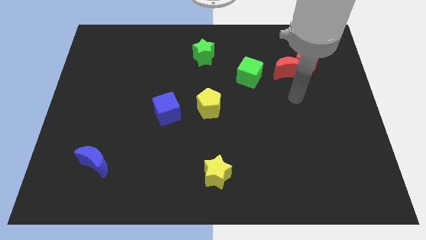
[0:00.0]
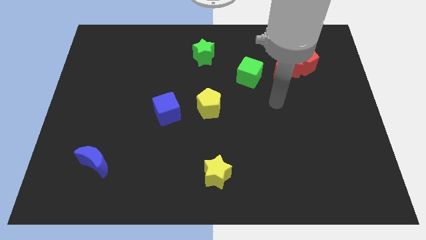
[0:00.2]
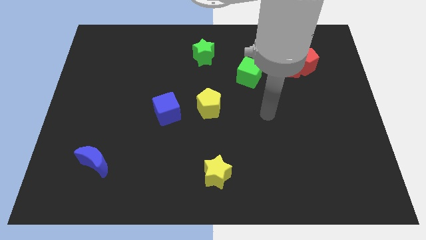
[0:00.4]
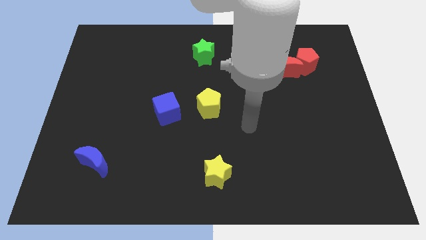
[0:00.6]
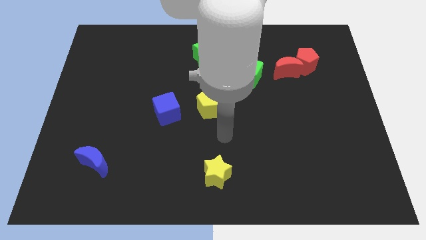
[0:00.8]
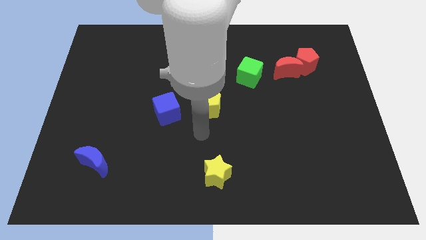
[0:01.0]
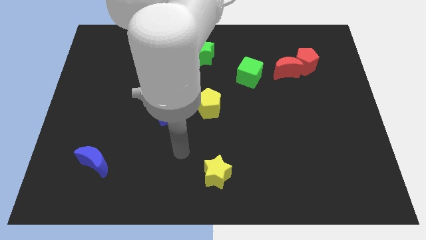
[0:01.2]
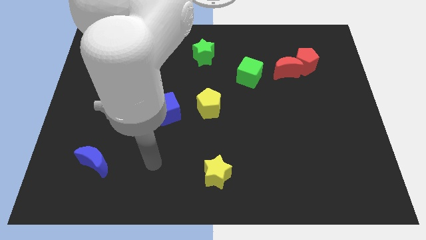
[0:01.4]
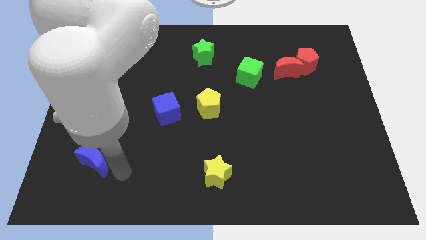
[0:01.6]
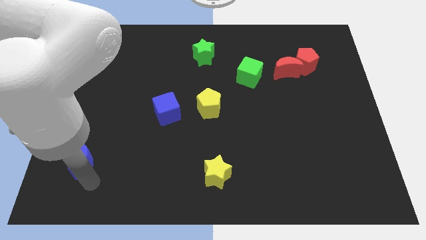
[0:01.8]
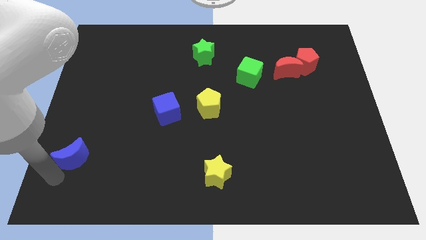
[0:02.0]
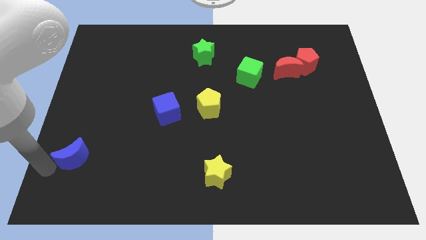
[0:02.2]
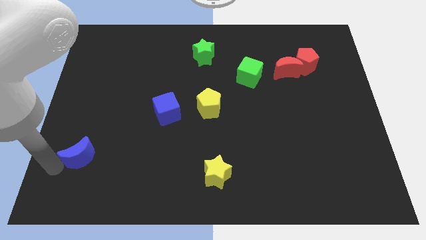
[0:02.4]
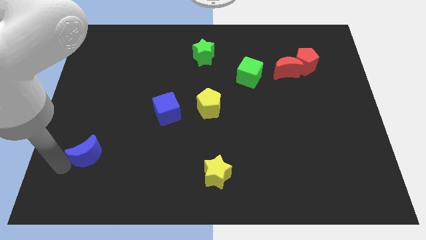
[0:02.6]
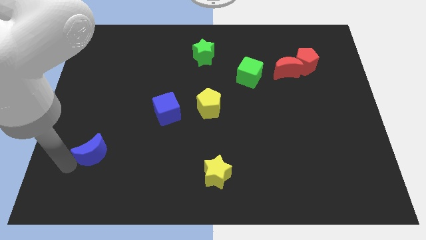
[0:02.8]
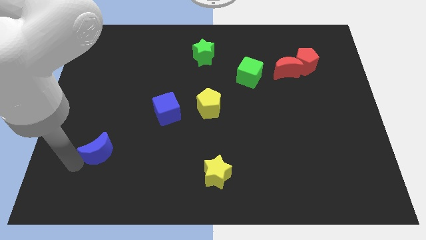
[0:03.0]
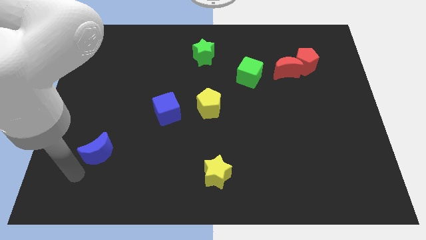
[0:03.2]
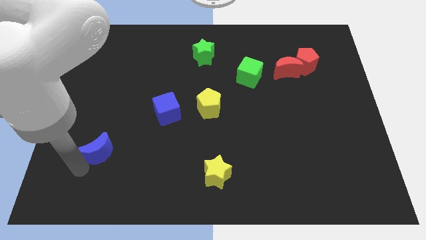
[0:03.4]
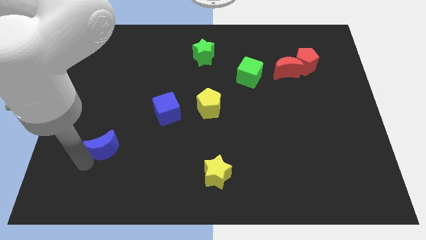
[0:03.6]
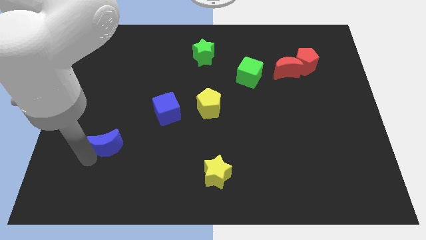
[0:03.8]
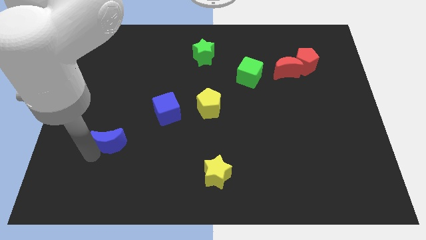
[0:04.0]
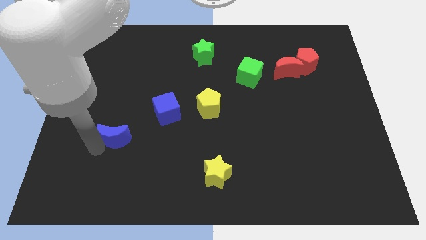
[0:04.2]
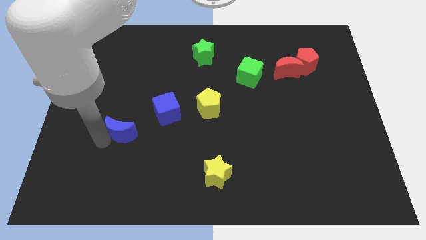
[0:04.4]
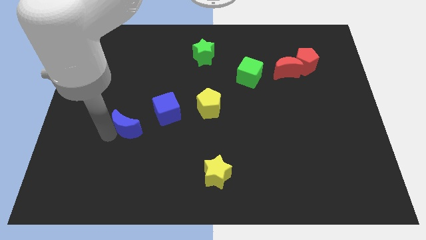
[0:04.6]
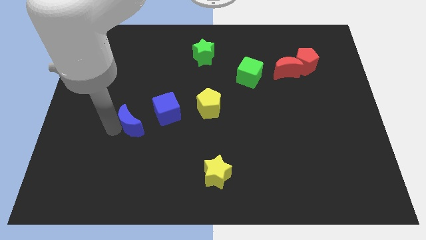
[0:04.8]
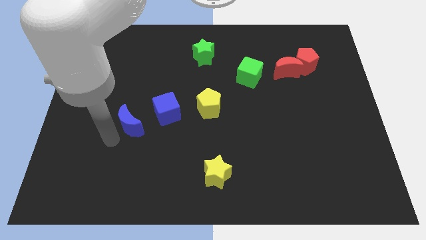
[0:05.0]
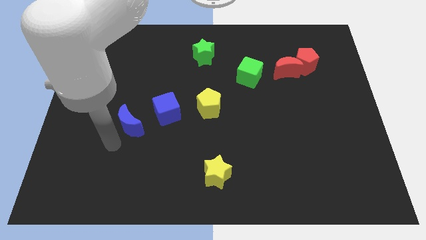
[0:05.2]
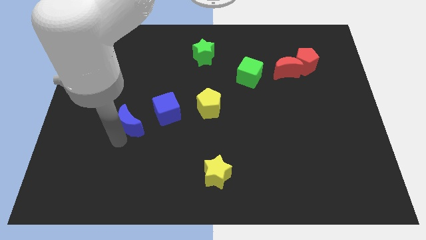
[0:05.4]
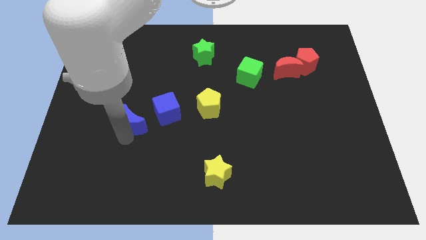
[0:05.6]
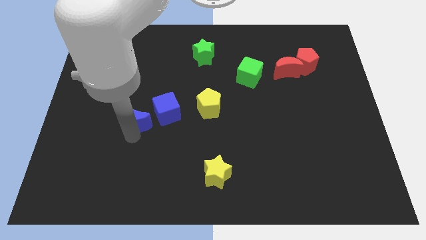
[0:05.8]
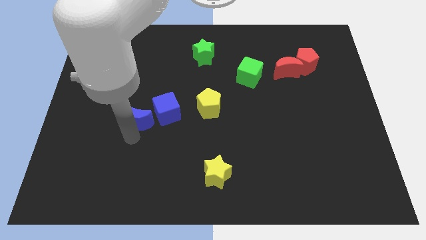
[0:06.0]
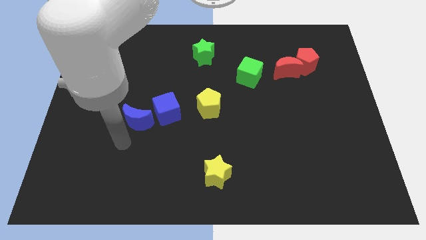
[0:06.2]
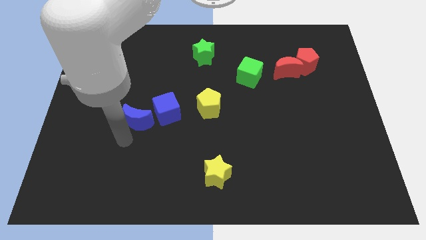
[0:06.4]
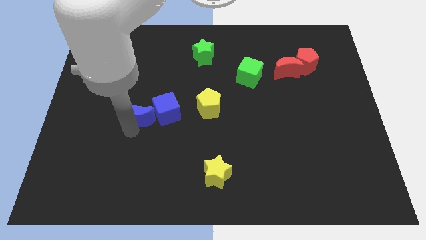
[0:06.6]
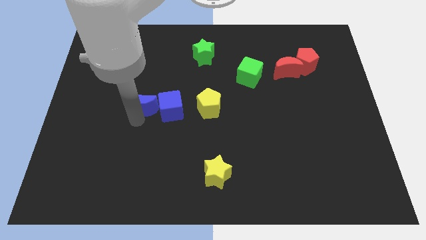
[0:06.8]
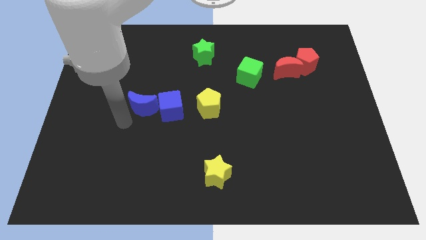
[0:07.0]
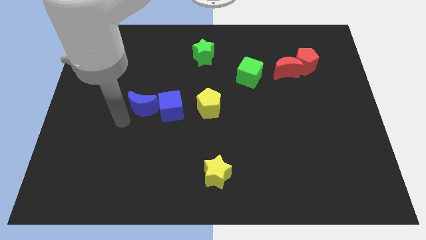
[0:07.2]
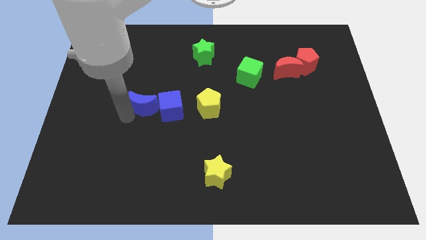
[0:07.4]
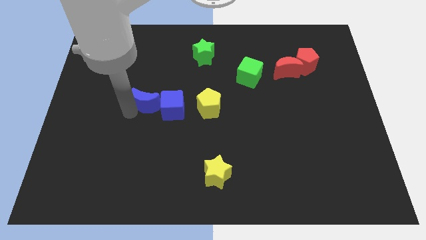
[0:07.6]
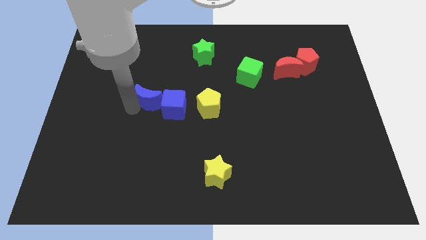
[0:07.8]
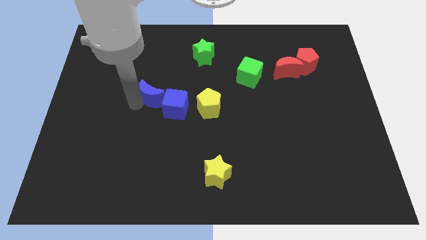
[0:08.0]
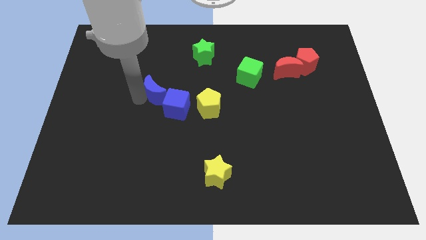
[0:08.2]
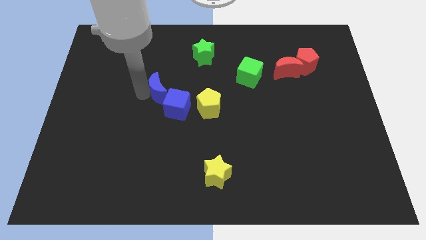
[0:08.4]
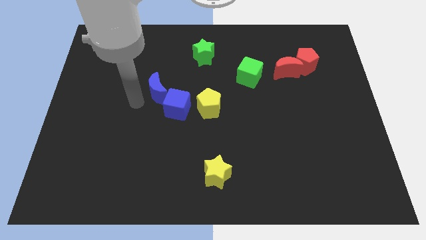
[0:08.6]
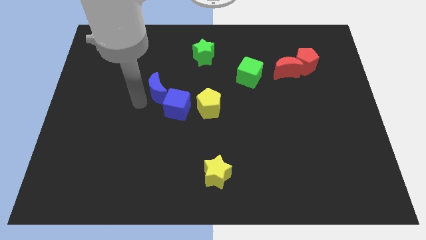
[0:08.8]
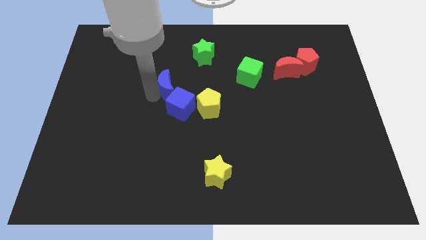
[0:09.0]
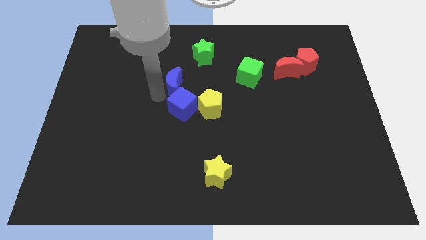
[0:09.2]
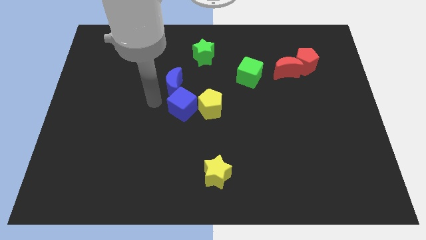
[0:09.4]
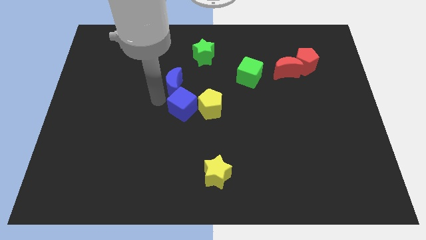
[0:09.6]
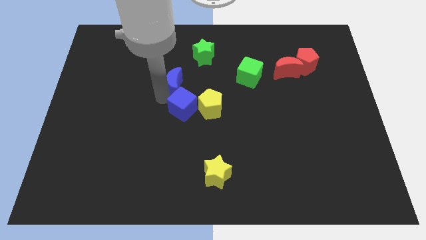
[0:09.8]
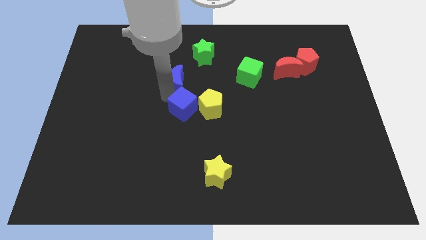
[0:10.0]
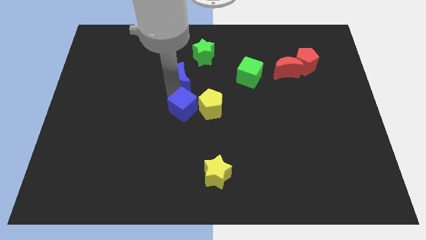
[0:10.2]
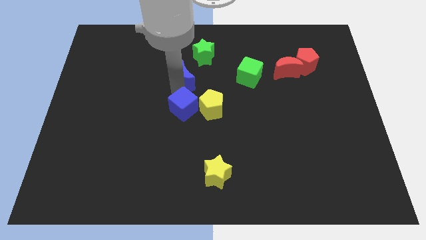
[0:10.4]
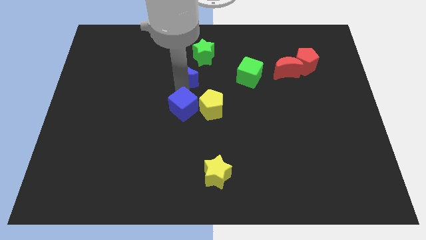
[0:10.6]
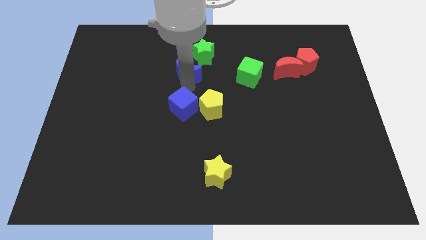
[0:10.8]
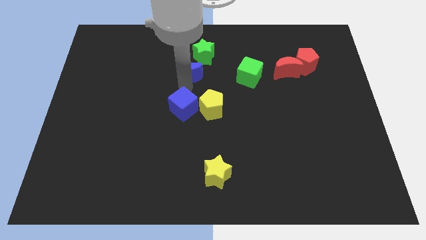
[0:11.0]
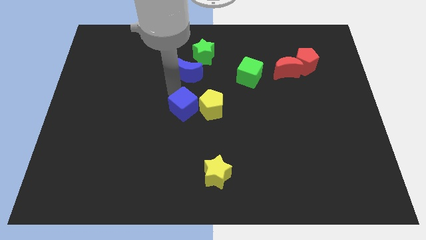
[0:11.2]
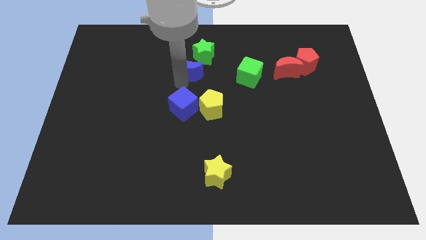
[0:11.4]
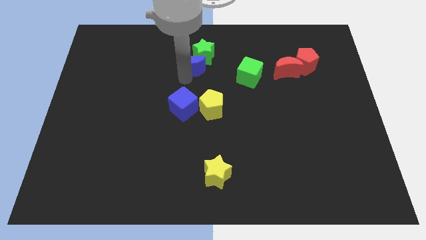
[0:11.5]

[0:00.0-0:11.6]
move the blue moon to the green star

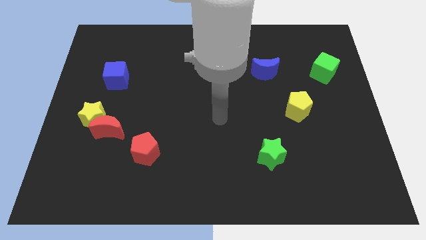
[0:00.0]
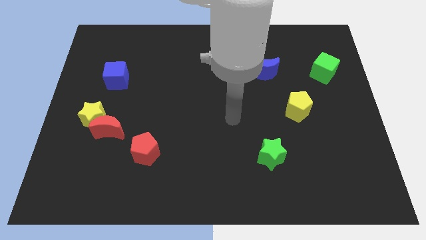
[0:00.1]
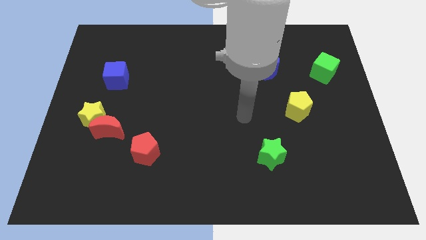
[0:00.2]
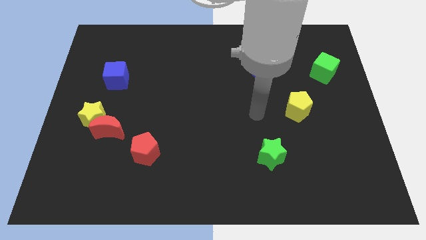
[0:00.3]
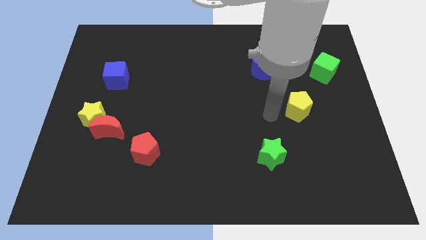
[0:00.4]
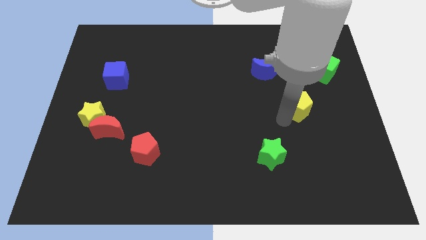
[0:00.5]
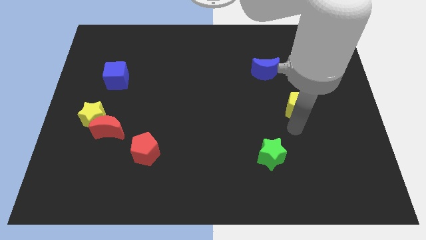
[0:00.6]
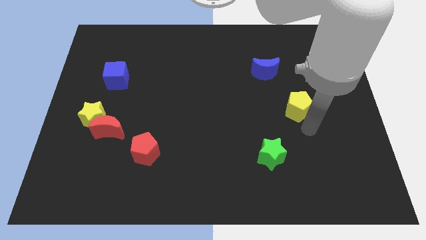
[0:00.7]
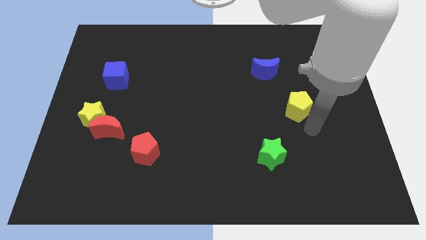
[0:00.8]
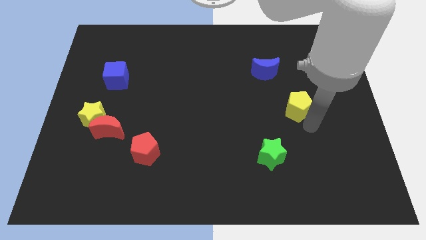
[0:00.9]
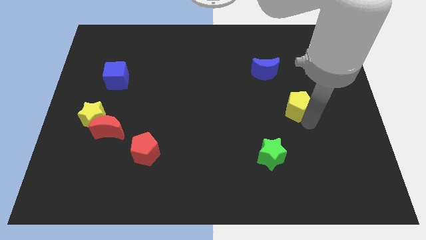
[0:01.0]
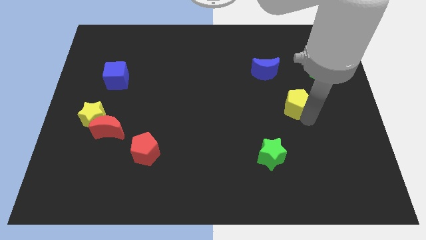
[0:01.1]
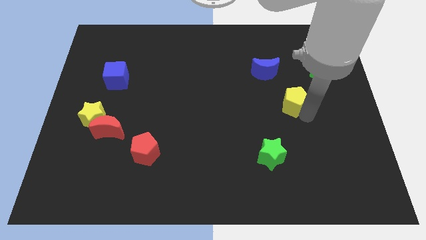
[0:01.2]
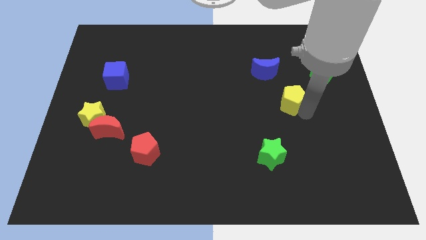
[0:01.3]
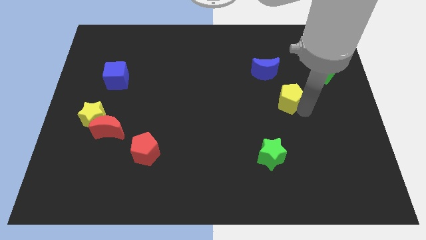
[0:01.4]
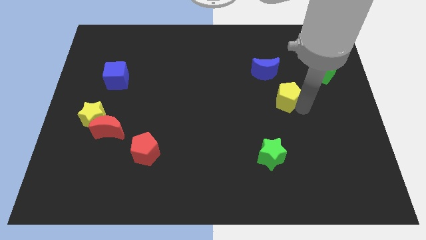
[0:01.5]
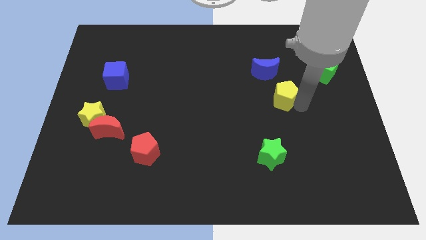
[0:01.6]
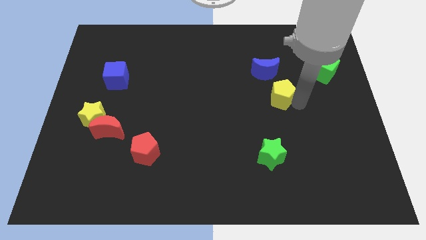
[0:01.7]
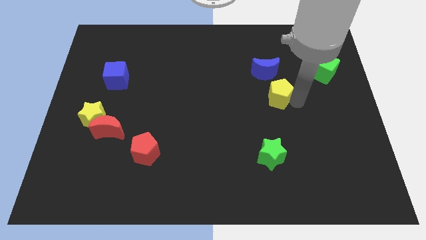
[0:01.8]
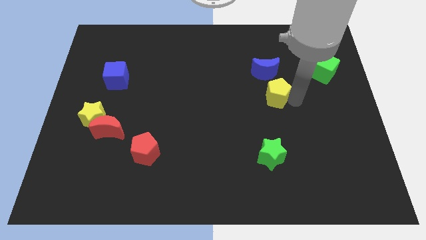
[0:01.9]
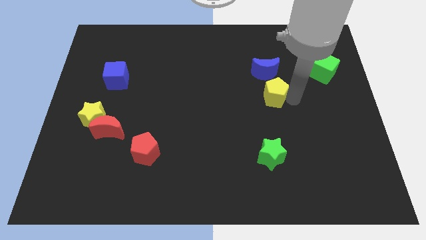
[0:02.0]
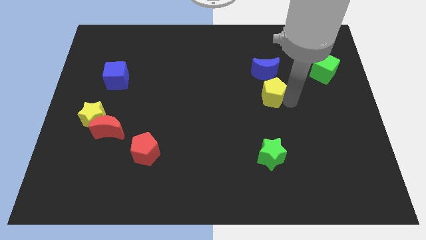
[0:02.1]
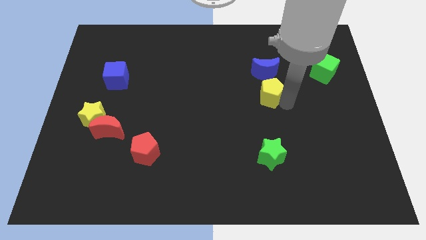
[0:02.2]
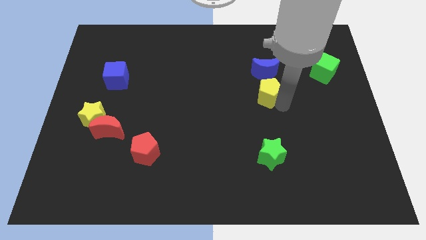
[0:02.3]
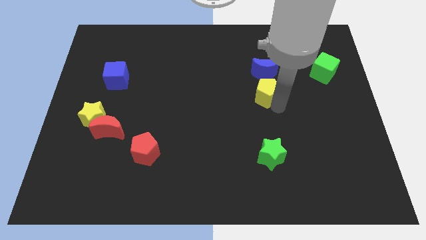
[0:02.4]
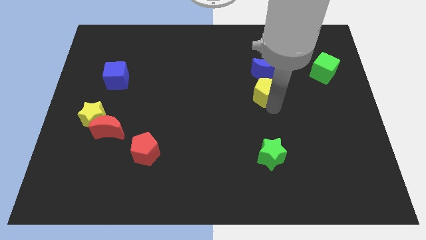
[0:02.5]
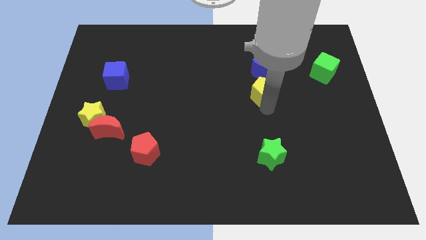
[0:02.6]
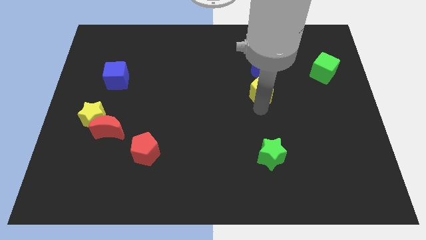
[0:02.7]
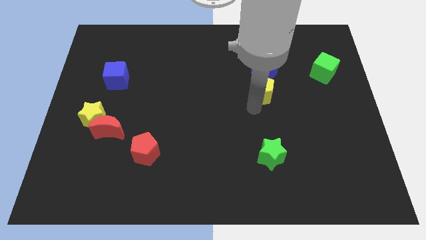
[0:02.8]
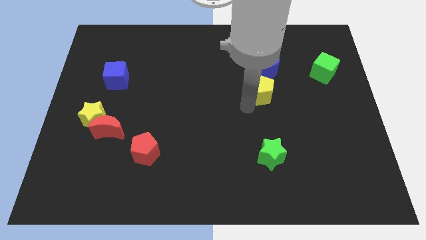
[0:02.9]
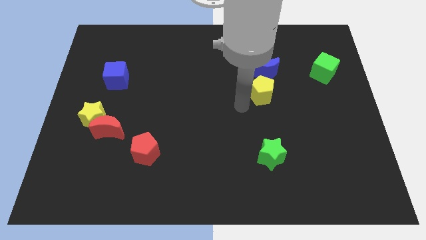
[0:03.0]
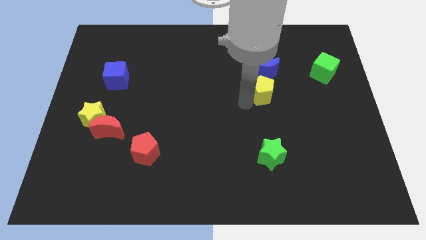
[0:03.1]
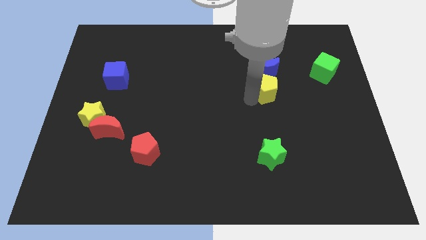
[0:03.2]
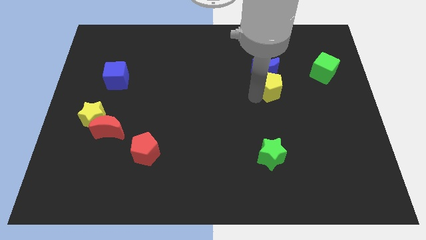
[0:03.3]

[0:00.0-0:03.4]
put the yellow pentagon next to the blue moon
